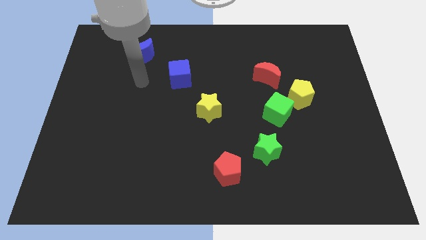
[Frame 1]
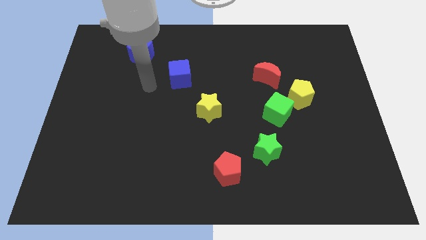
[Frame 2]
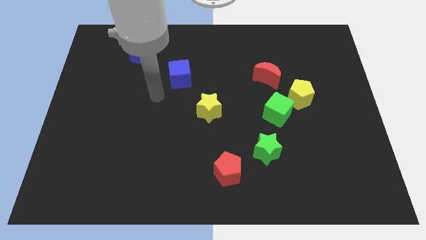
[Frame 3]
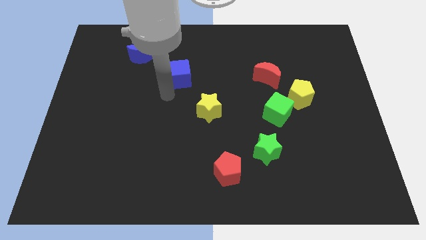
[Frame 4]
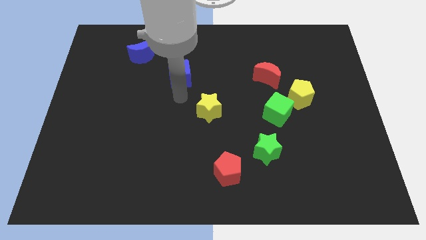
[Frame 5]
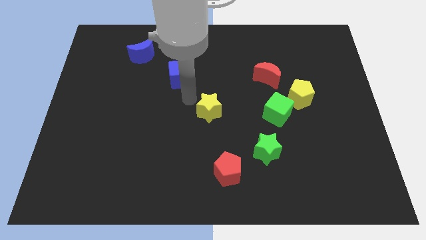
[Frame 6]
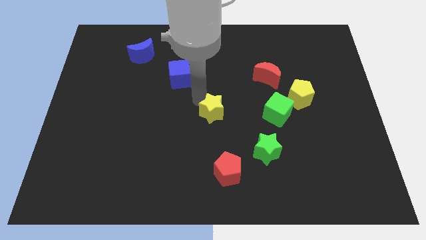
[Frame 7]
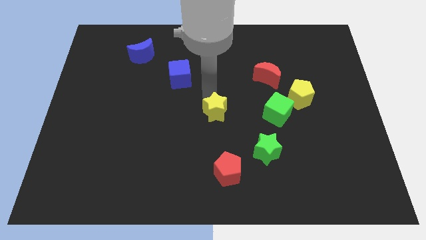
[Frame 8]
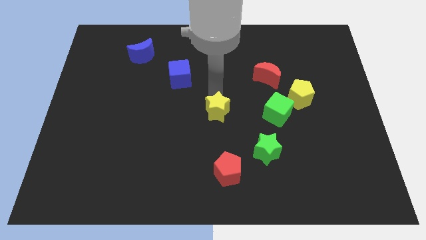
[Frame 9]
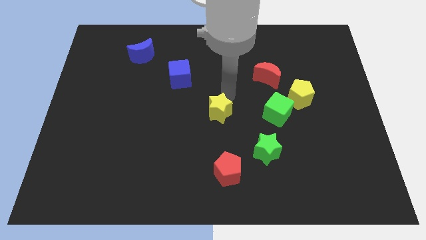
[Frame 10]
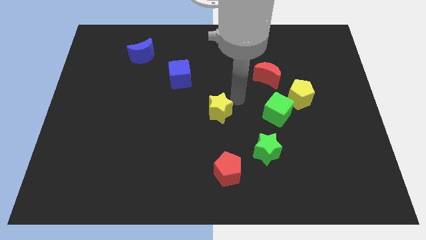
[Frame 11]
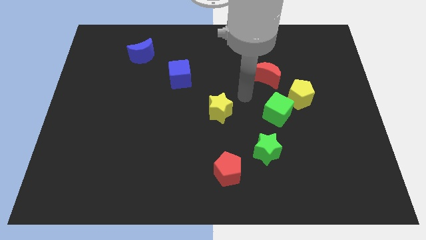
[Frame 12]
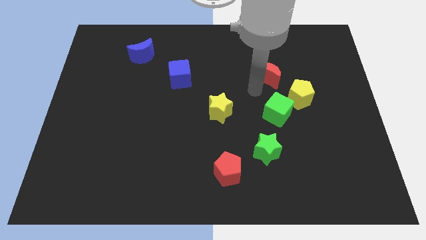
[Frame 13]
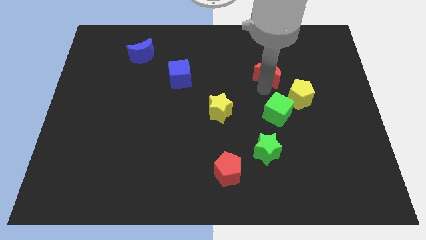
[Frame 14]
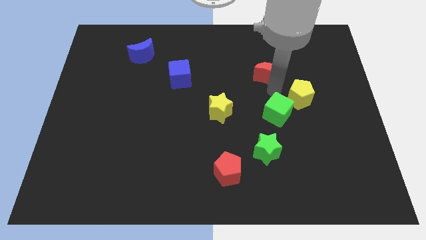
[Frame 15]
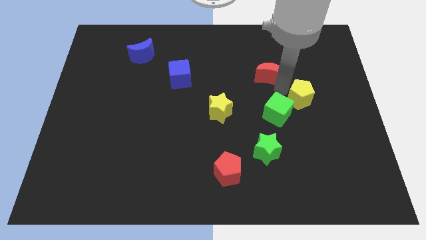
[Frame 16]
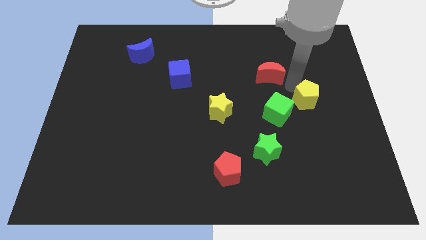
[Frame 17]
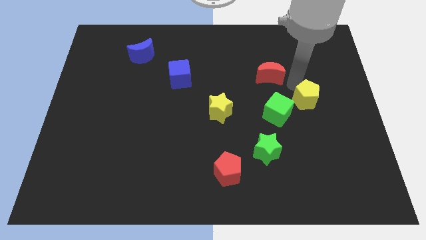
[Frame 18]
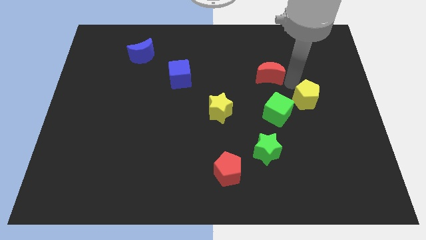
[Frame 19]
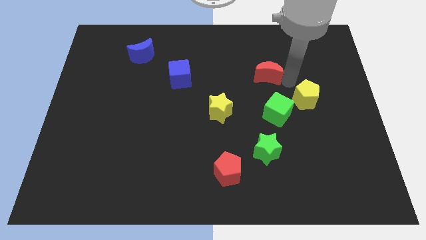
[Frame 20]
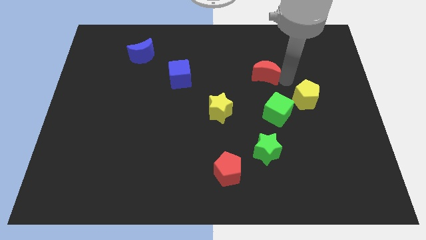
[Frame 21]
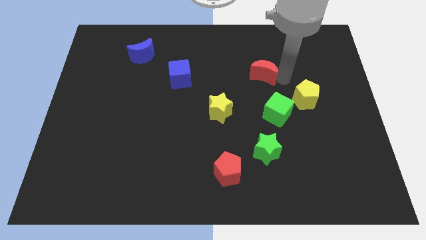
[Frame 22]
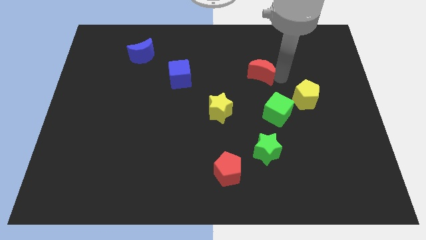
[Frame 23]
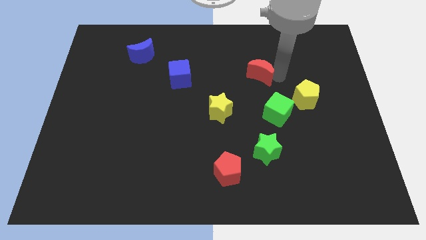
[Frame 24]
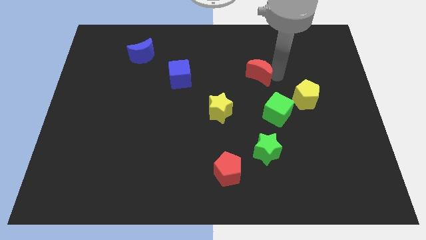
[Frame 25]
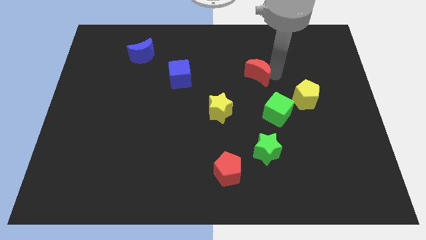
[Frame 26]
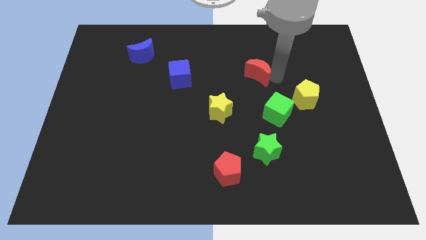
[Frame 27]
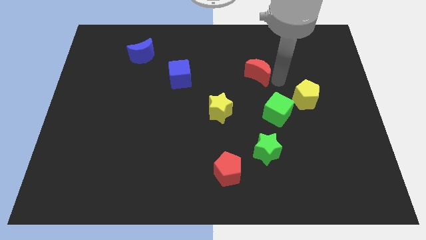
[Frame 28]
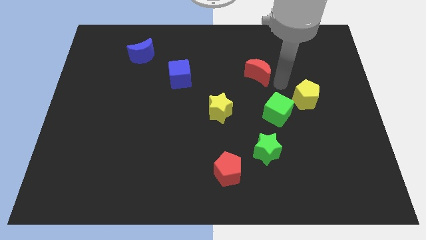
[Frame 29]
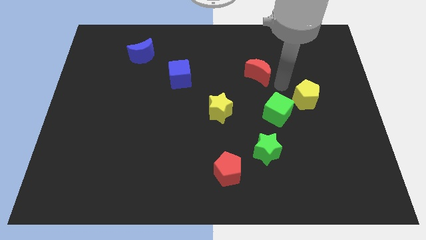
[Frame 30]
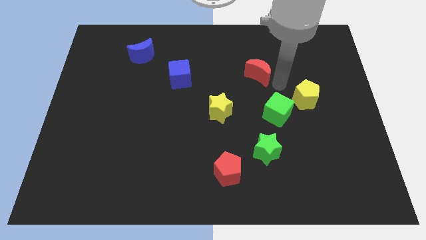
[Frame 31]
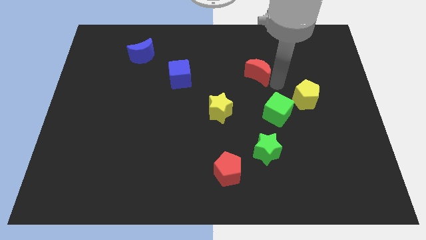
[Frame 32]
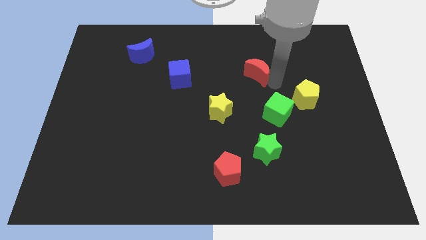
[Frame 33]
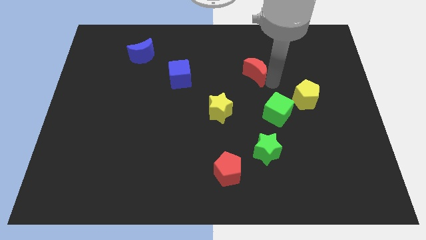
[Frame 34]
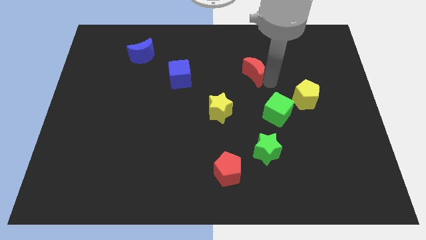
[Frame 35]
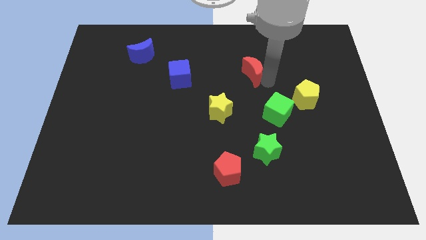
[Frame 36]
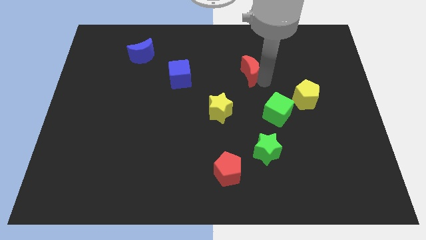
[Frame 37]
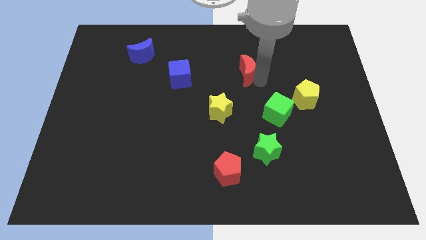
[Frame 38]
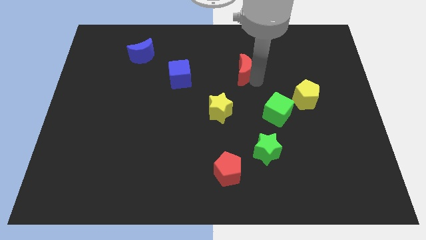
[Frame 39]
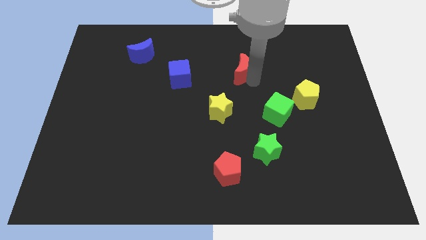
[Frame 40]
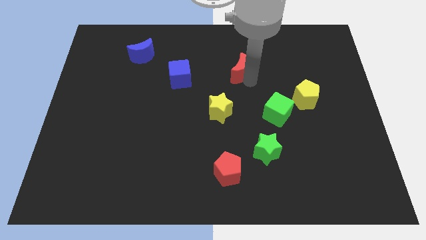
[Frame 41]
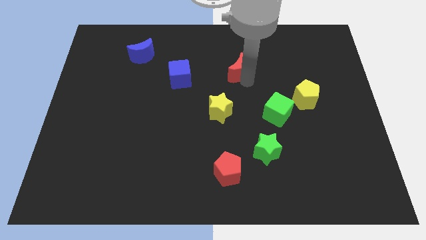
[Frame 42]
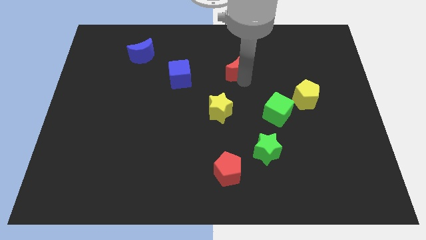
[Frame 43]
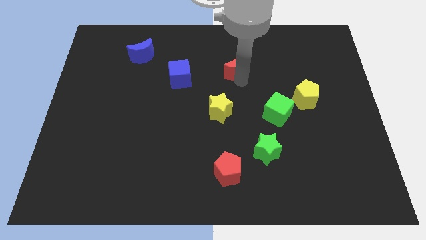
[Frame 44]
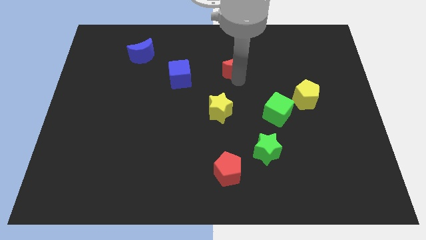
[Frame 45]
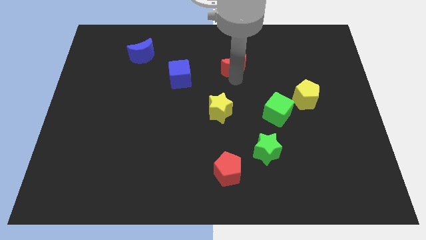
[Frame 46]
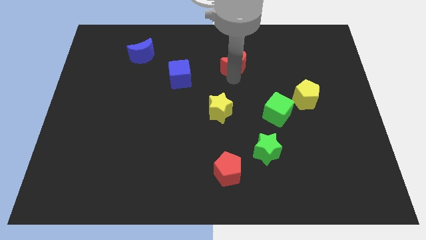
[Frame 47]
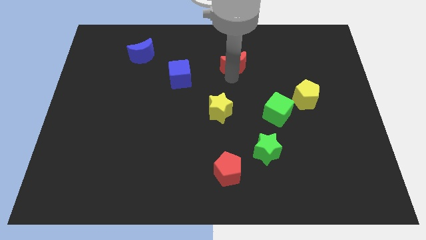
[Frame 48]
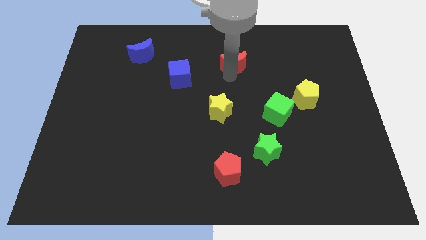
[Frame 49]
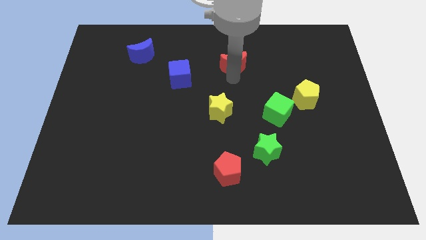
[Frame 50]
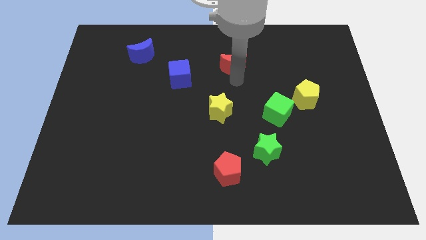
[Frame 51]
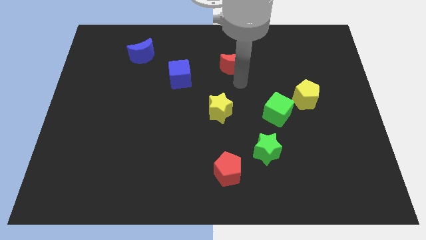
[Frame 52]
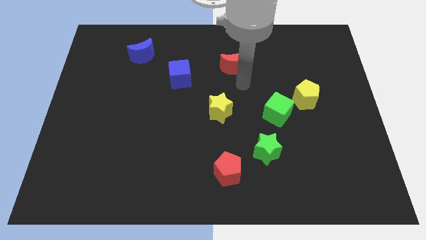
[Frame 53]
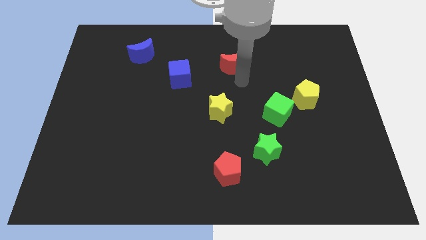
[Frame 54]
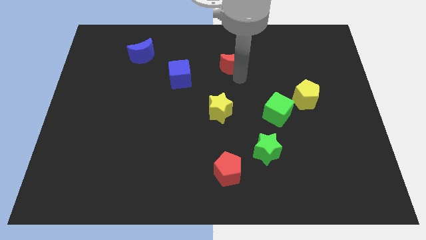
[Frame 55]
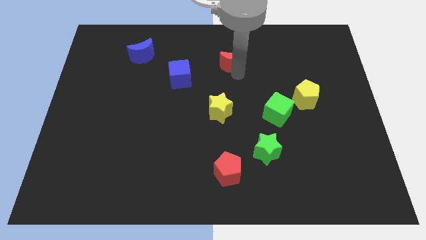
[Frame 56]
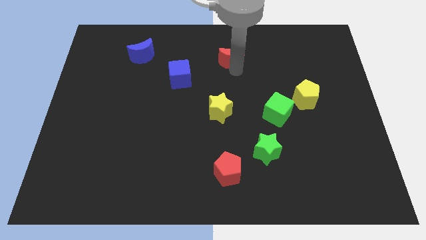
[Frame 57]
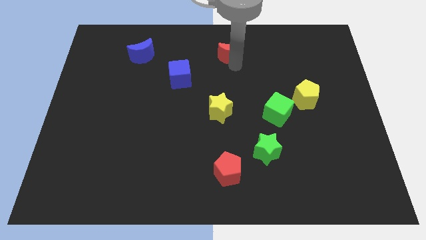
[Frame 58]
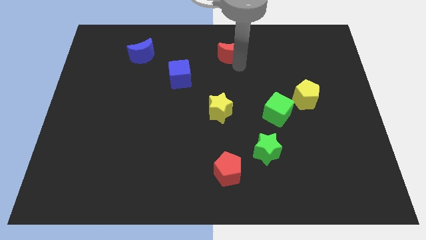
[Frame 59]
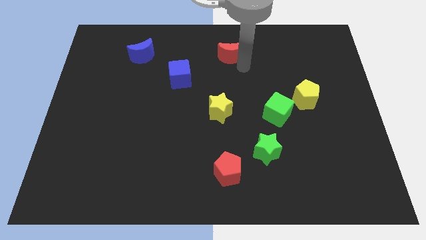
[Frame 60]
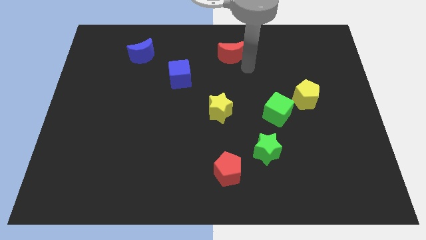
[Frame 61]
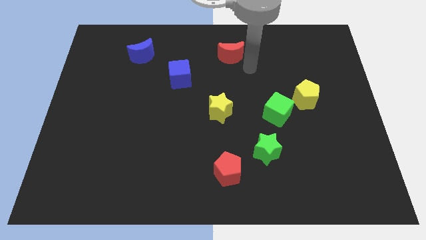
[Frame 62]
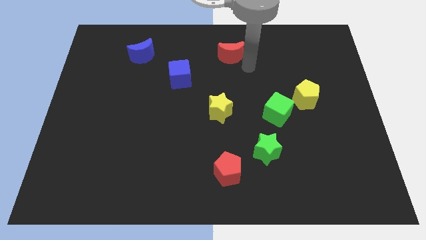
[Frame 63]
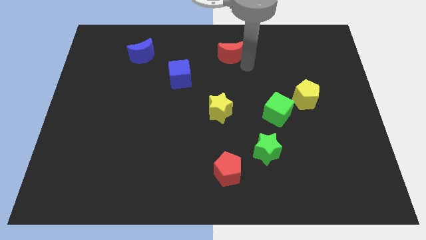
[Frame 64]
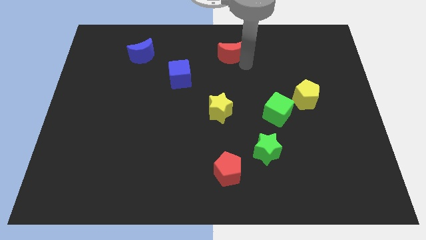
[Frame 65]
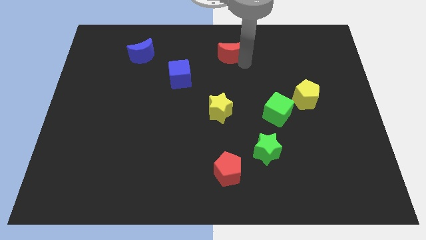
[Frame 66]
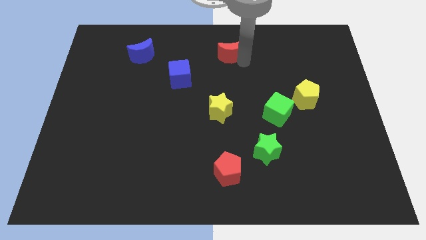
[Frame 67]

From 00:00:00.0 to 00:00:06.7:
put the red moon to the top side
